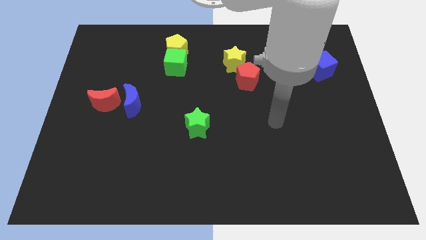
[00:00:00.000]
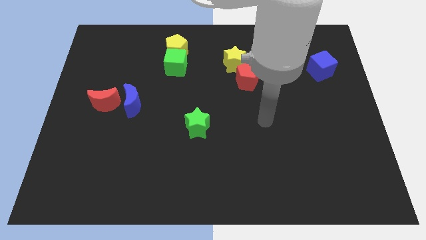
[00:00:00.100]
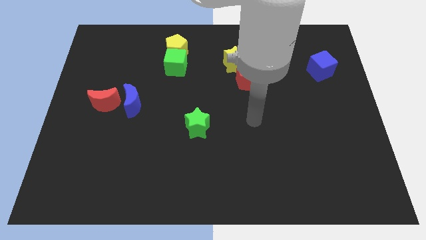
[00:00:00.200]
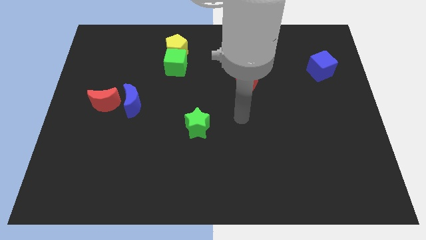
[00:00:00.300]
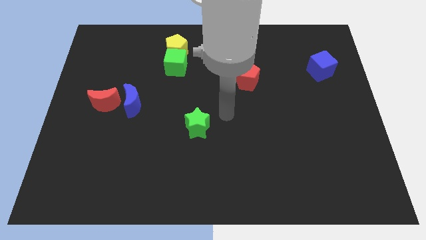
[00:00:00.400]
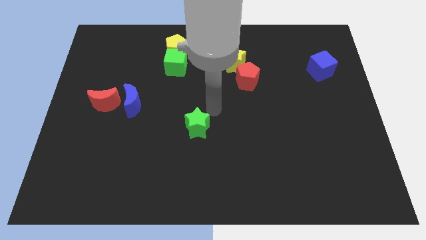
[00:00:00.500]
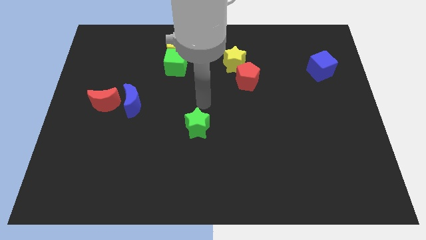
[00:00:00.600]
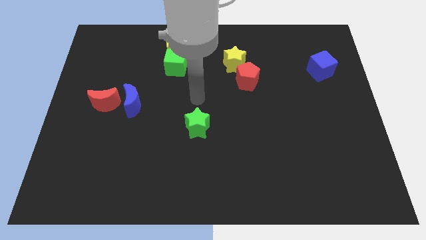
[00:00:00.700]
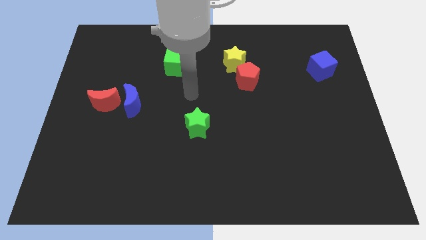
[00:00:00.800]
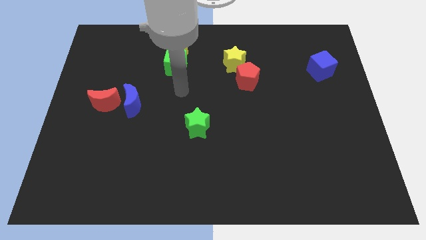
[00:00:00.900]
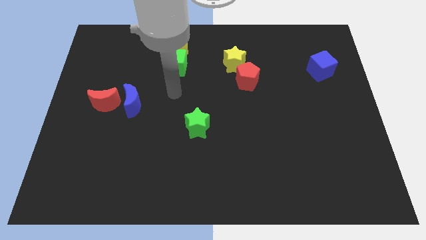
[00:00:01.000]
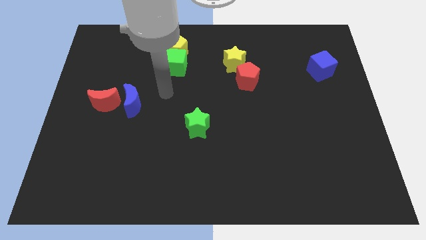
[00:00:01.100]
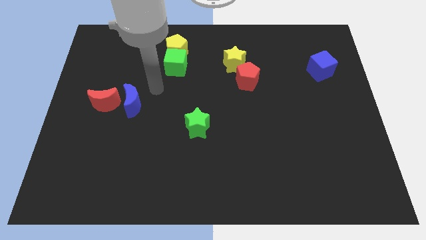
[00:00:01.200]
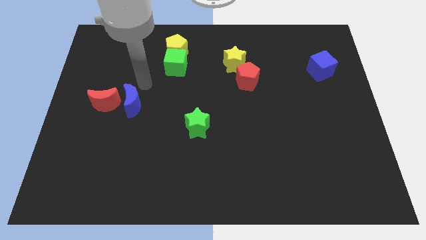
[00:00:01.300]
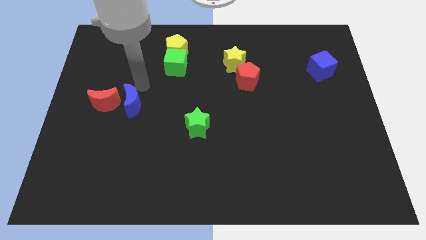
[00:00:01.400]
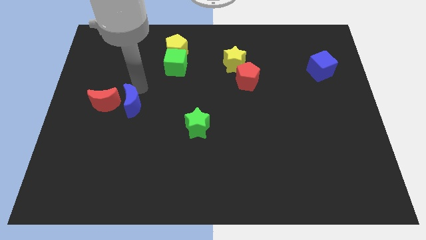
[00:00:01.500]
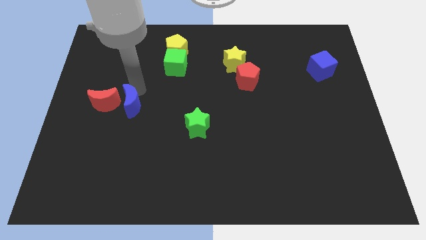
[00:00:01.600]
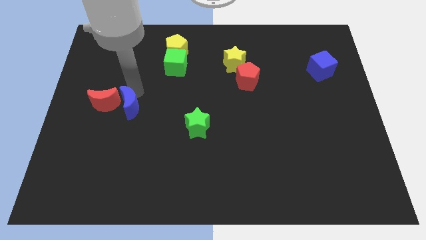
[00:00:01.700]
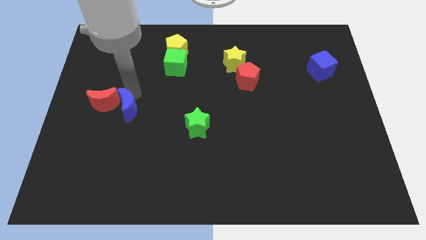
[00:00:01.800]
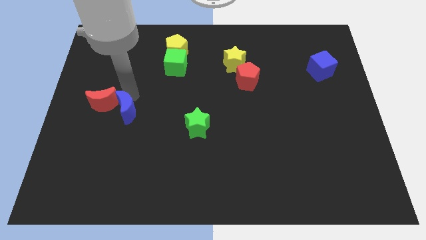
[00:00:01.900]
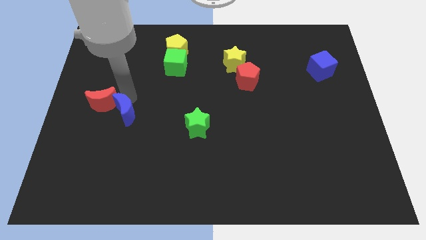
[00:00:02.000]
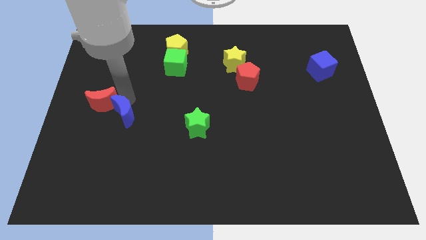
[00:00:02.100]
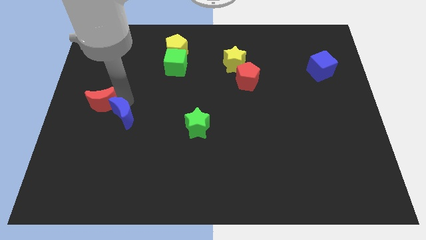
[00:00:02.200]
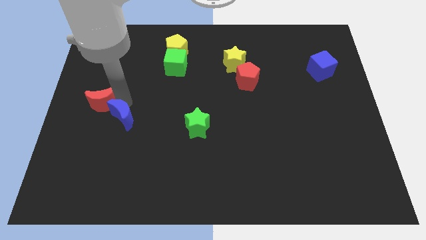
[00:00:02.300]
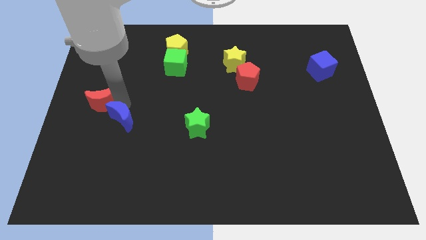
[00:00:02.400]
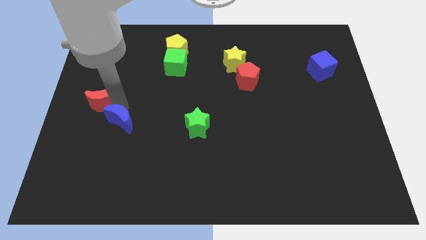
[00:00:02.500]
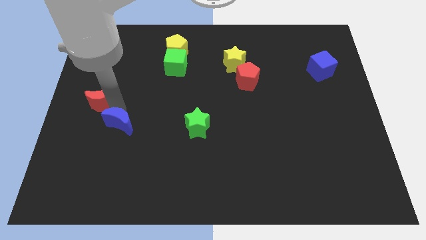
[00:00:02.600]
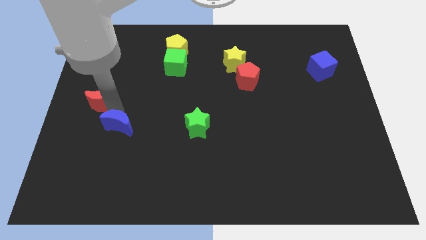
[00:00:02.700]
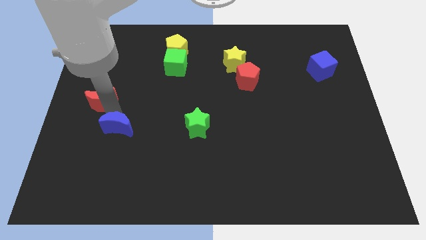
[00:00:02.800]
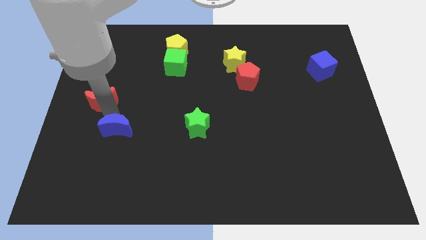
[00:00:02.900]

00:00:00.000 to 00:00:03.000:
slide the blue moon downwards a bit

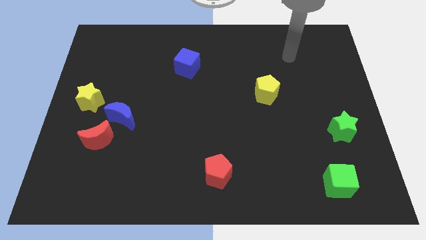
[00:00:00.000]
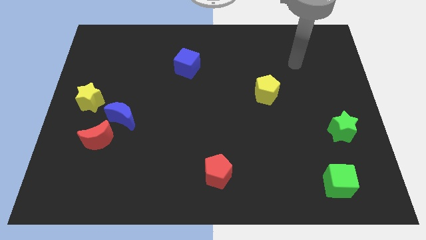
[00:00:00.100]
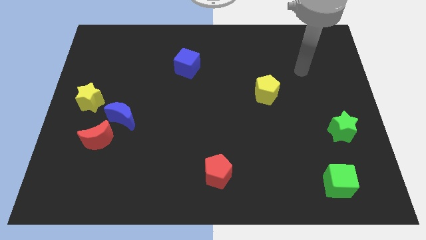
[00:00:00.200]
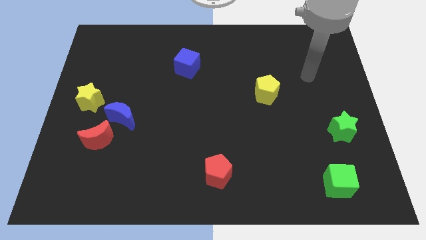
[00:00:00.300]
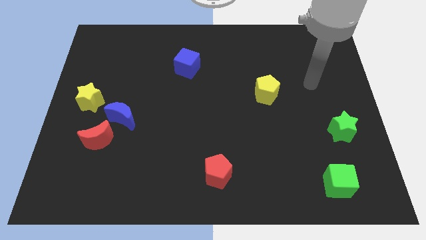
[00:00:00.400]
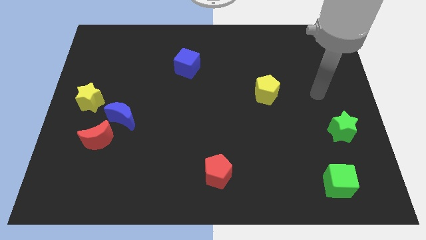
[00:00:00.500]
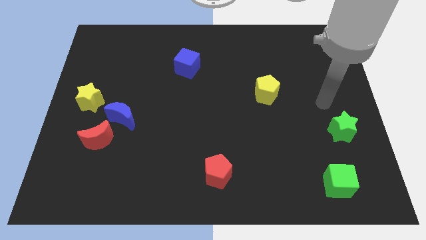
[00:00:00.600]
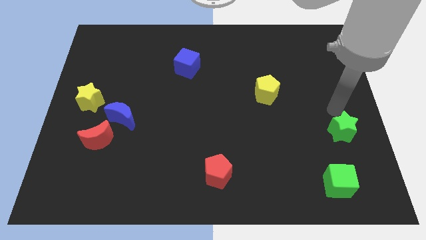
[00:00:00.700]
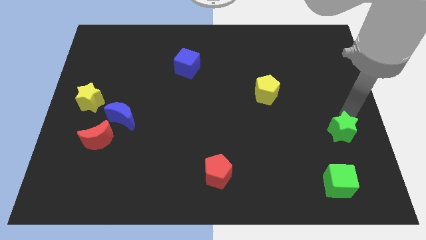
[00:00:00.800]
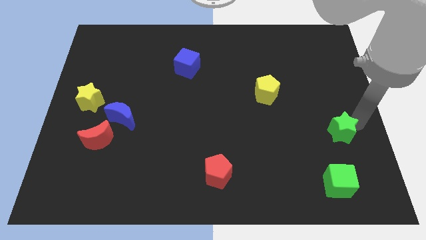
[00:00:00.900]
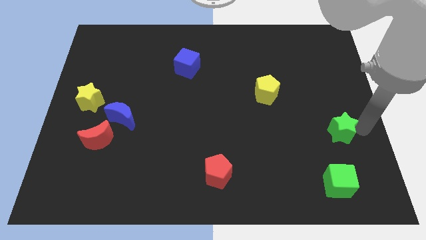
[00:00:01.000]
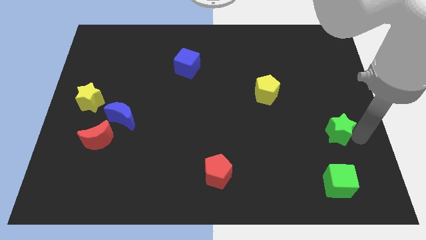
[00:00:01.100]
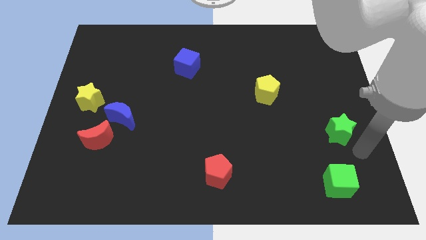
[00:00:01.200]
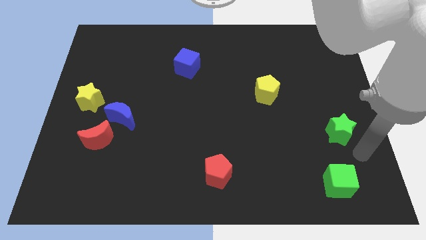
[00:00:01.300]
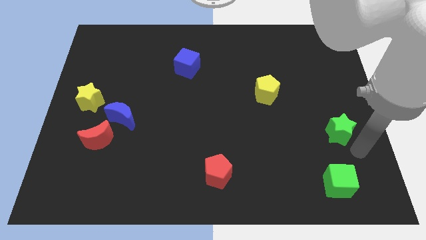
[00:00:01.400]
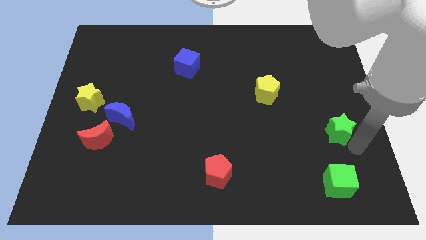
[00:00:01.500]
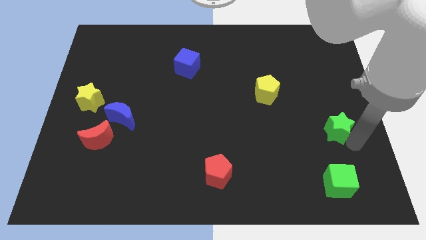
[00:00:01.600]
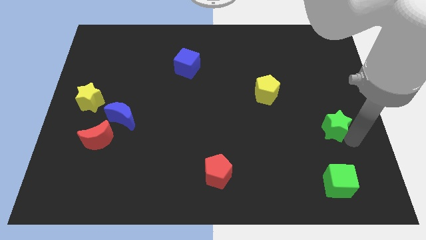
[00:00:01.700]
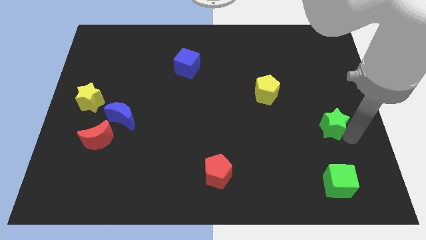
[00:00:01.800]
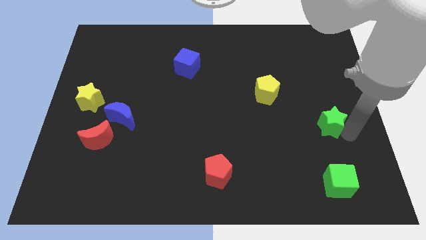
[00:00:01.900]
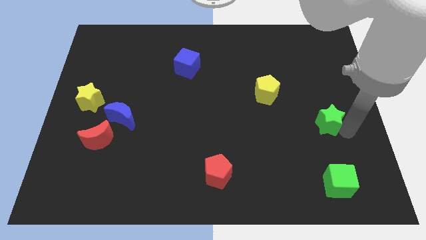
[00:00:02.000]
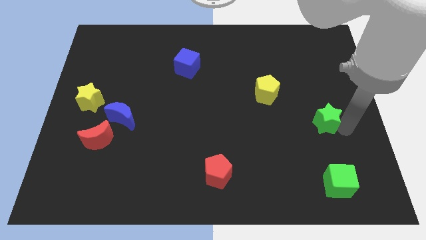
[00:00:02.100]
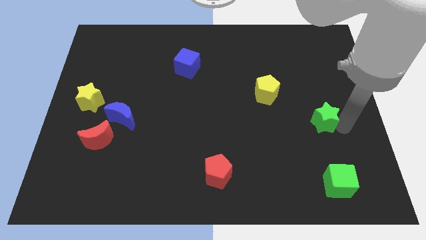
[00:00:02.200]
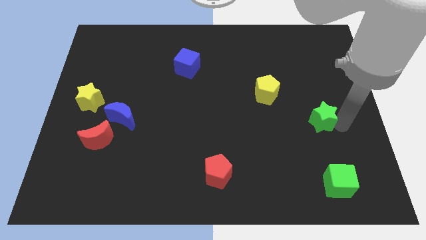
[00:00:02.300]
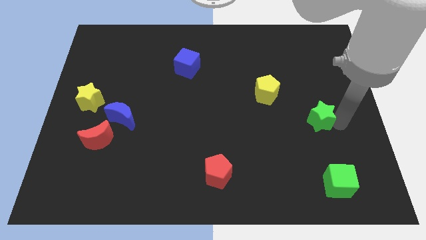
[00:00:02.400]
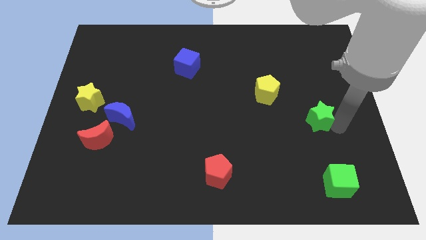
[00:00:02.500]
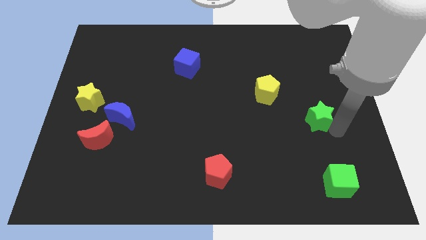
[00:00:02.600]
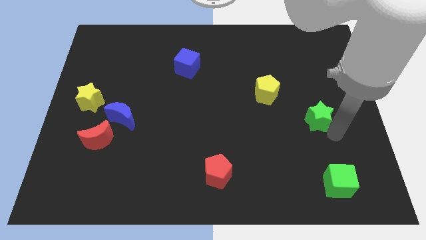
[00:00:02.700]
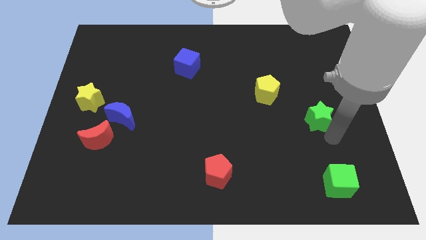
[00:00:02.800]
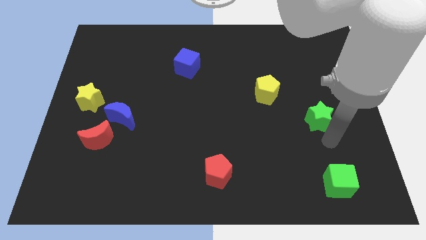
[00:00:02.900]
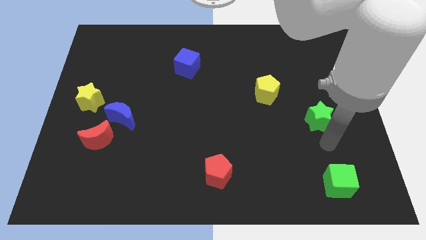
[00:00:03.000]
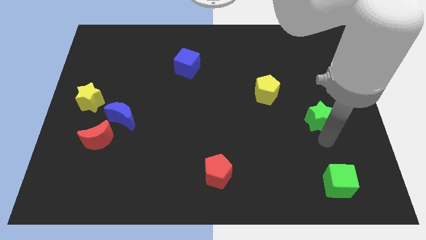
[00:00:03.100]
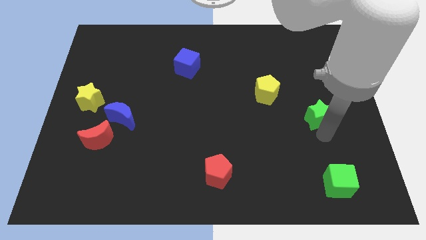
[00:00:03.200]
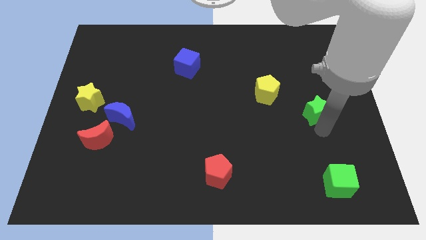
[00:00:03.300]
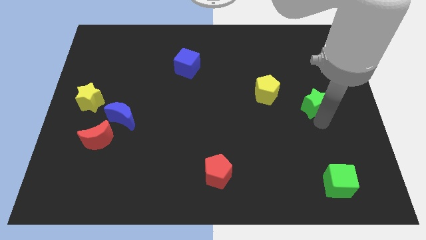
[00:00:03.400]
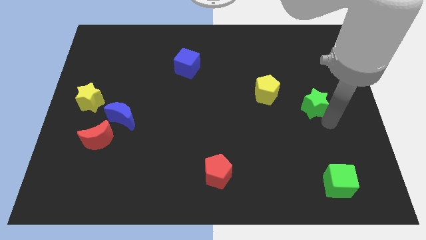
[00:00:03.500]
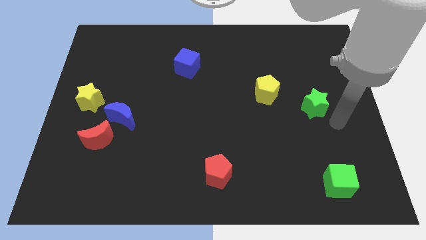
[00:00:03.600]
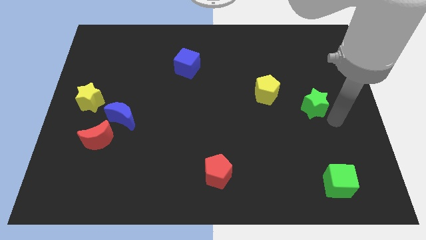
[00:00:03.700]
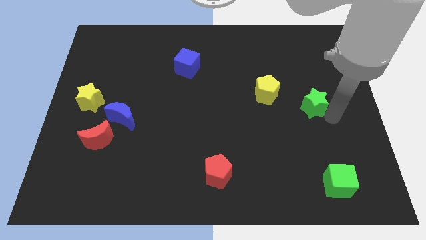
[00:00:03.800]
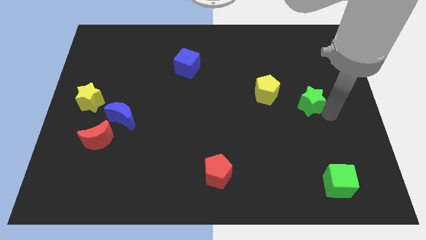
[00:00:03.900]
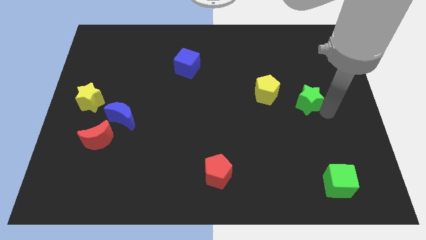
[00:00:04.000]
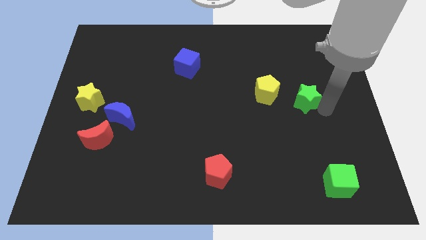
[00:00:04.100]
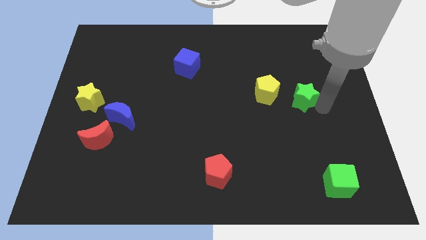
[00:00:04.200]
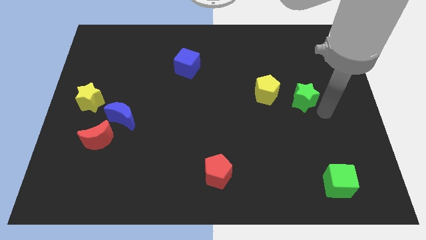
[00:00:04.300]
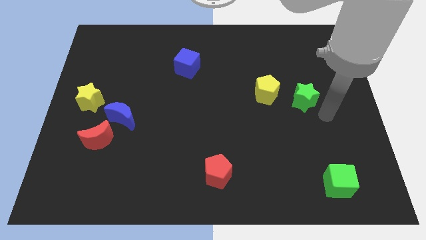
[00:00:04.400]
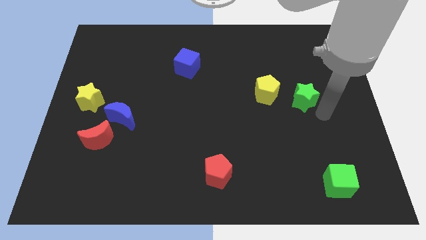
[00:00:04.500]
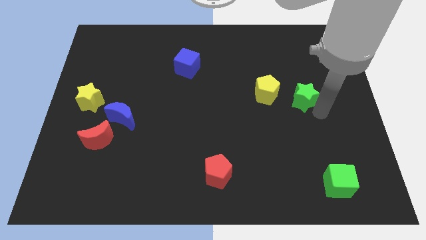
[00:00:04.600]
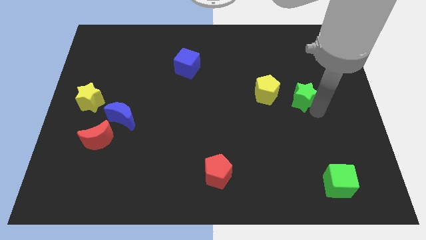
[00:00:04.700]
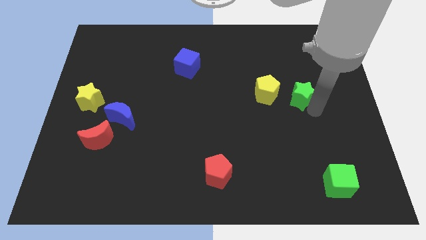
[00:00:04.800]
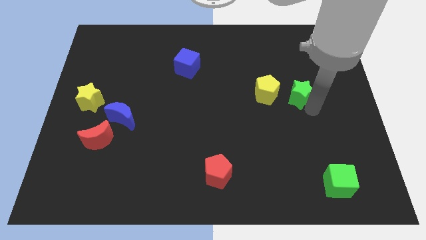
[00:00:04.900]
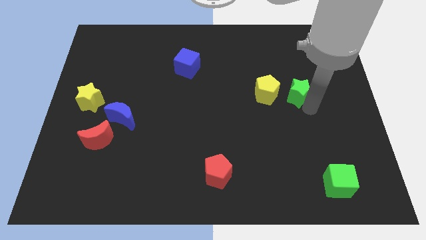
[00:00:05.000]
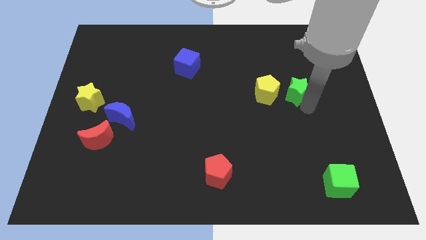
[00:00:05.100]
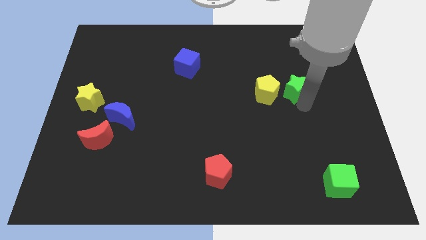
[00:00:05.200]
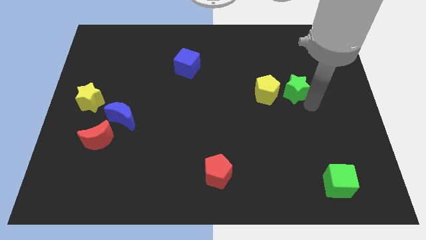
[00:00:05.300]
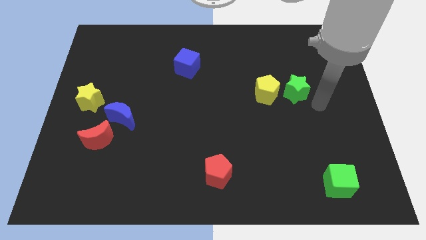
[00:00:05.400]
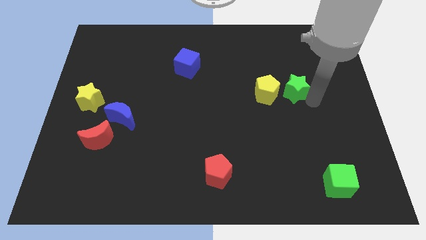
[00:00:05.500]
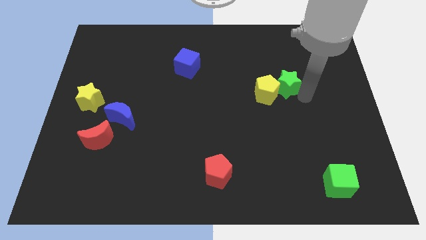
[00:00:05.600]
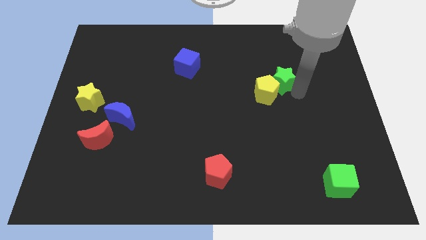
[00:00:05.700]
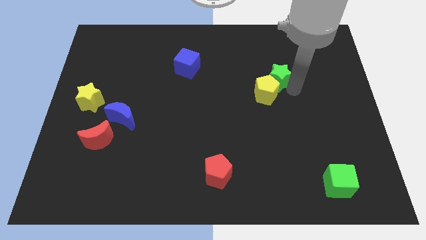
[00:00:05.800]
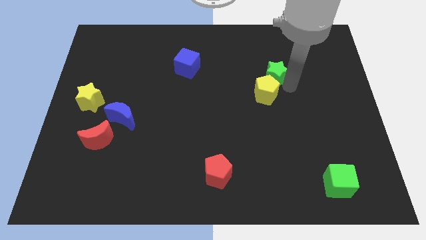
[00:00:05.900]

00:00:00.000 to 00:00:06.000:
slide the green star up and to the left diagonally
